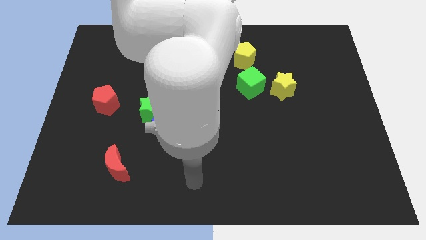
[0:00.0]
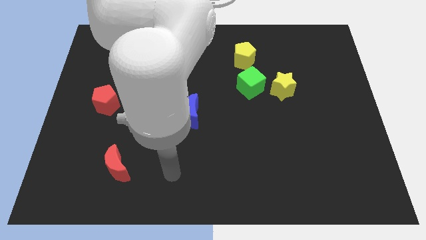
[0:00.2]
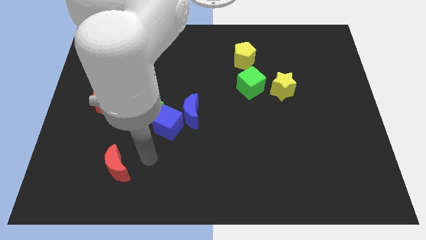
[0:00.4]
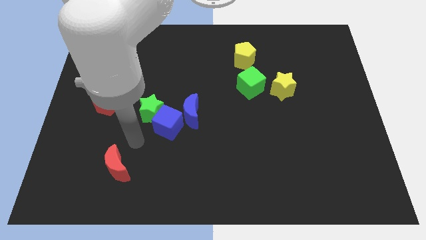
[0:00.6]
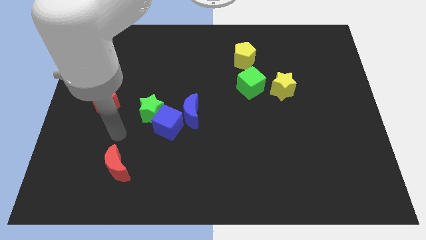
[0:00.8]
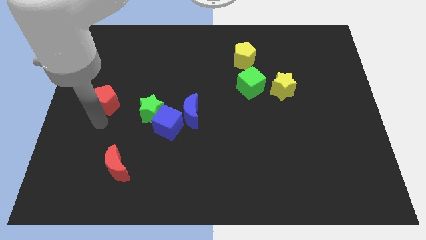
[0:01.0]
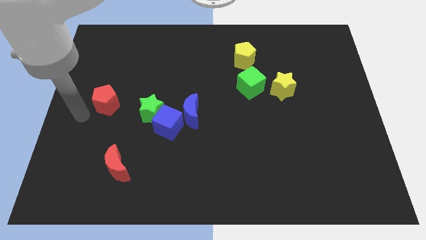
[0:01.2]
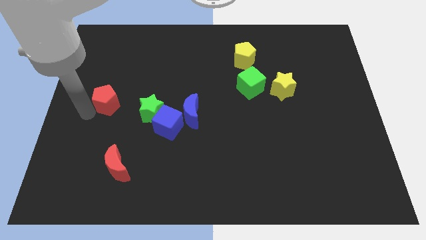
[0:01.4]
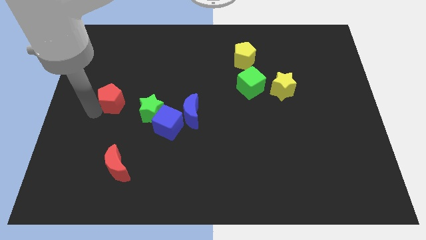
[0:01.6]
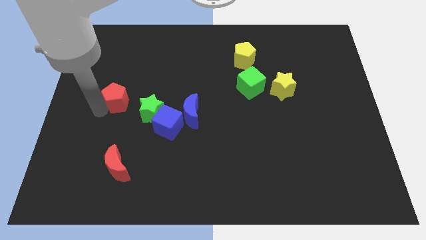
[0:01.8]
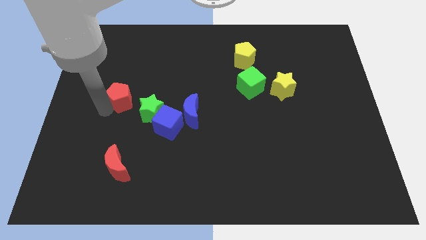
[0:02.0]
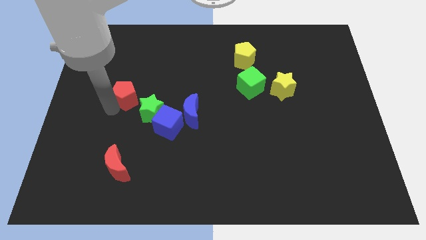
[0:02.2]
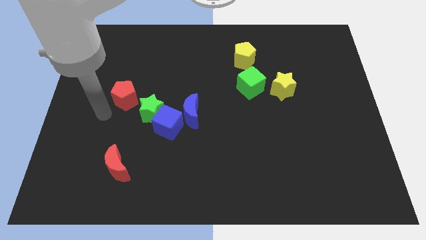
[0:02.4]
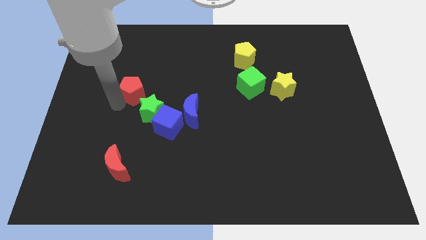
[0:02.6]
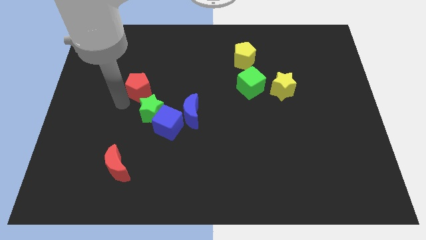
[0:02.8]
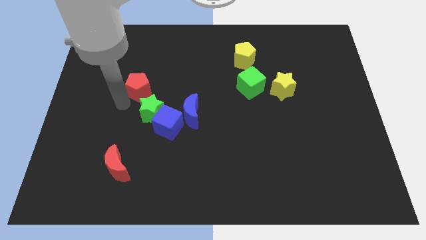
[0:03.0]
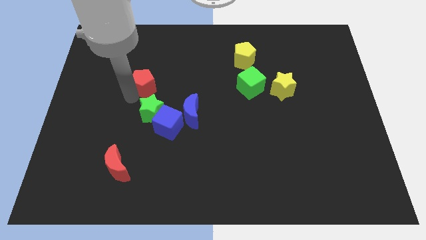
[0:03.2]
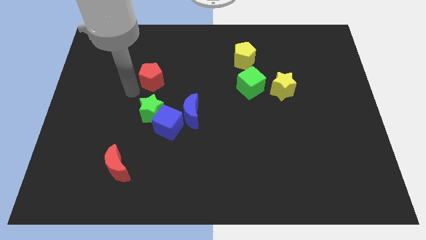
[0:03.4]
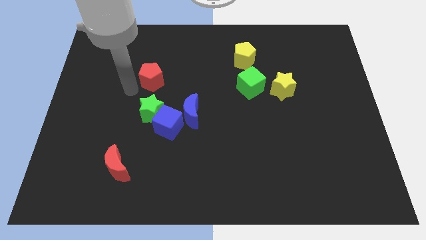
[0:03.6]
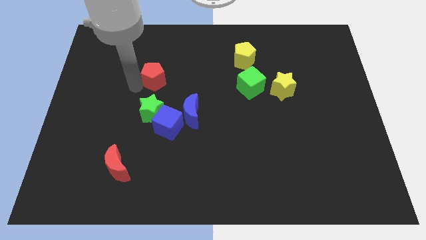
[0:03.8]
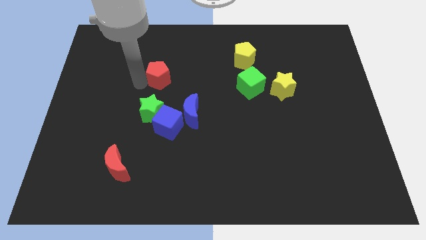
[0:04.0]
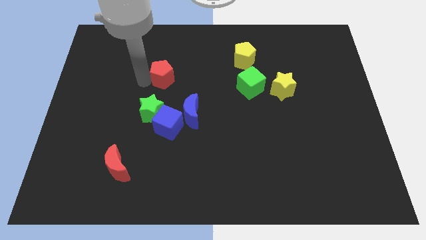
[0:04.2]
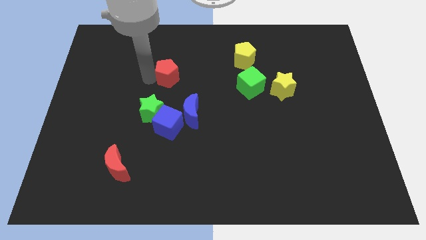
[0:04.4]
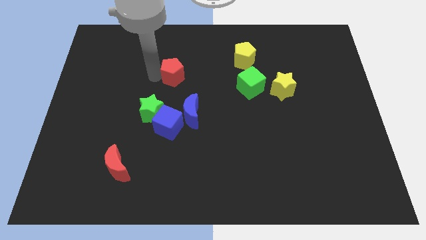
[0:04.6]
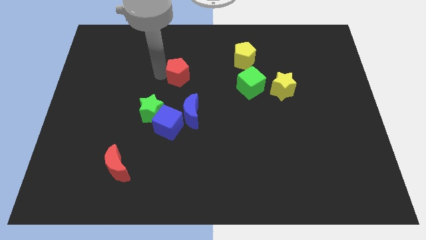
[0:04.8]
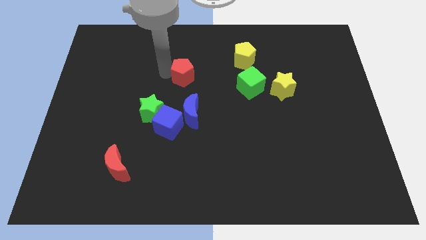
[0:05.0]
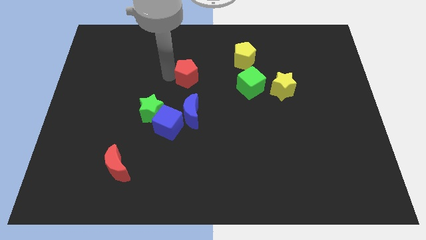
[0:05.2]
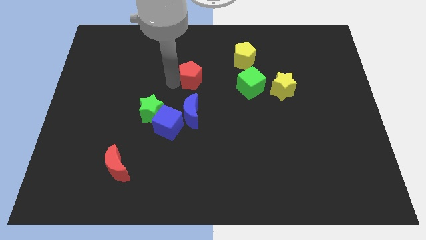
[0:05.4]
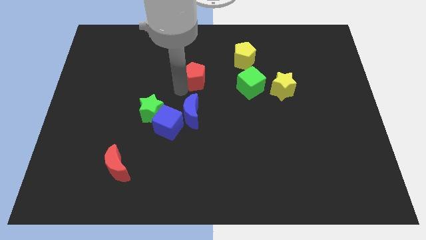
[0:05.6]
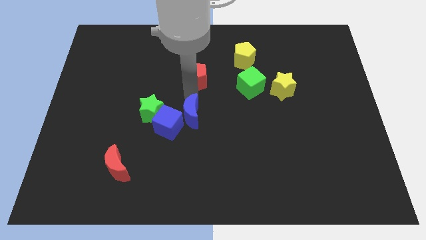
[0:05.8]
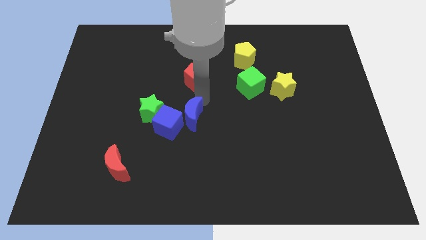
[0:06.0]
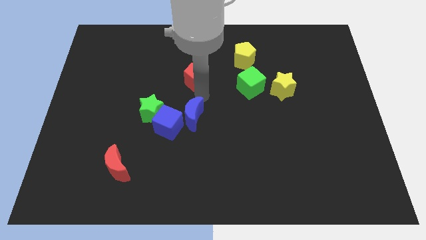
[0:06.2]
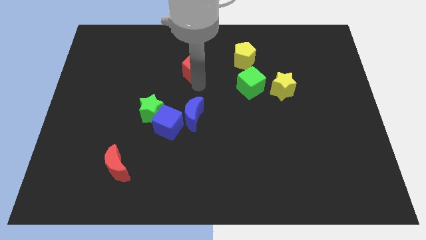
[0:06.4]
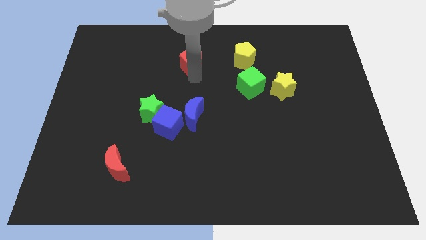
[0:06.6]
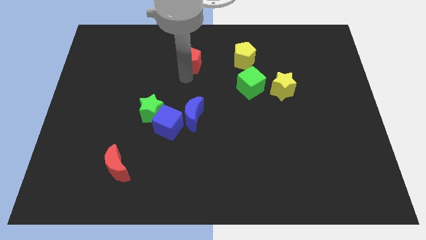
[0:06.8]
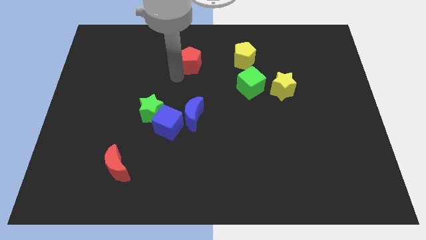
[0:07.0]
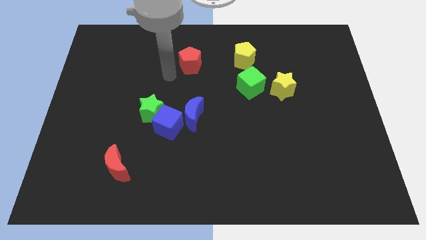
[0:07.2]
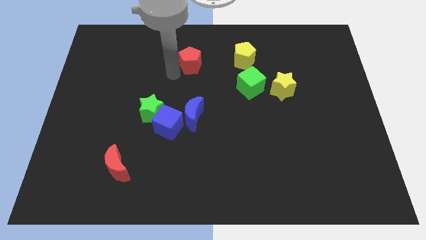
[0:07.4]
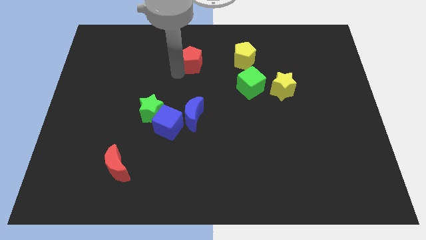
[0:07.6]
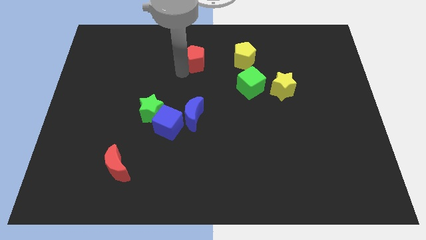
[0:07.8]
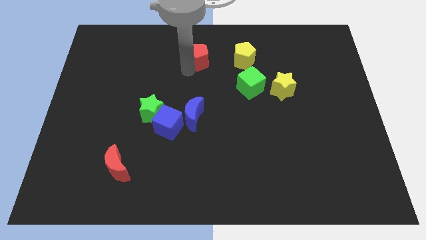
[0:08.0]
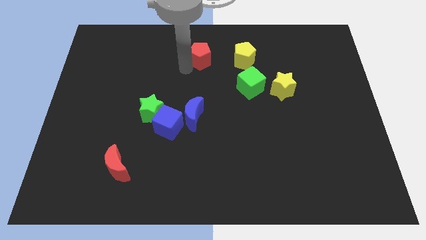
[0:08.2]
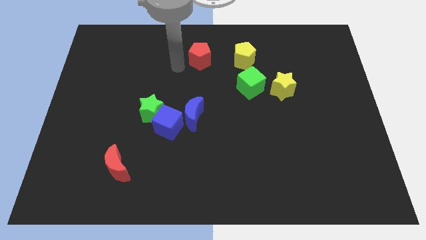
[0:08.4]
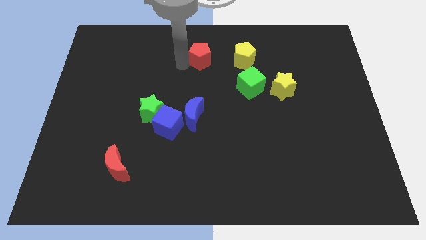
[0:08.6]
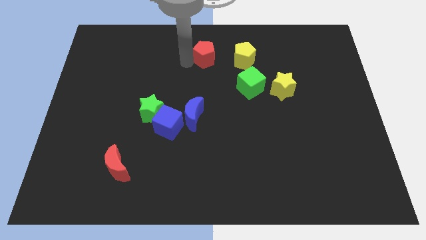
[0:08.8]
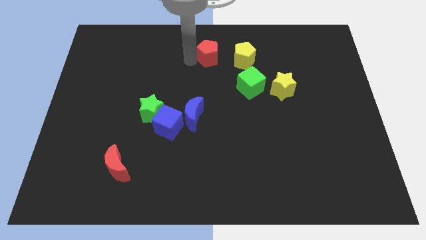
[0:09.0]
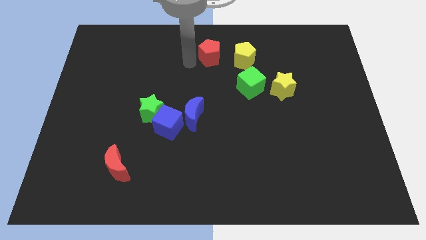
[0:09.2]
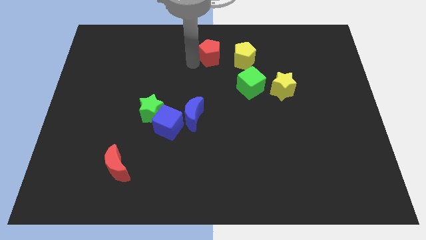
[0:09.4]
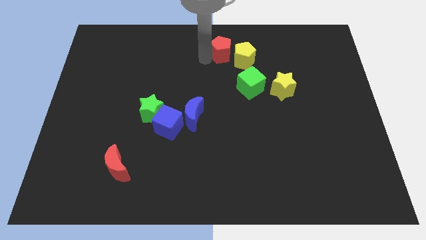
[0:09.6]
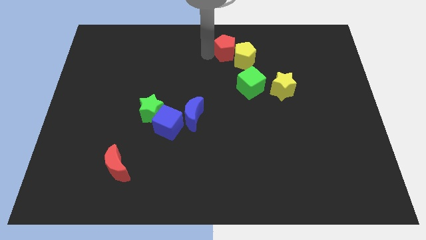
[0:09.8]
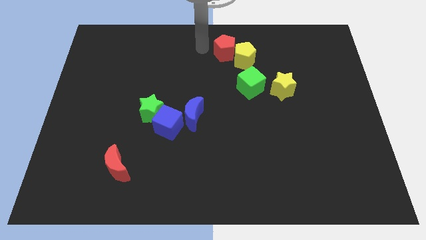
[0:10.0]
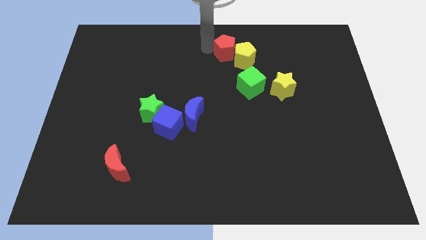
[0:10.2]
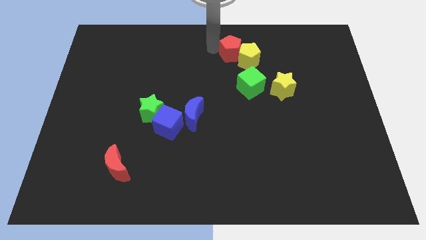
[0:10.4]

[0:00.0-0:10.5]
put the red pentagon to the top of the green cube

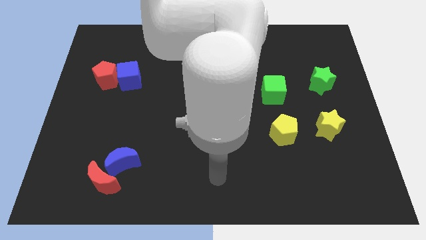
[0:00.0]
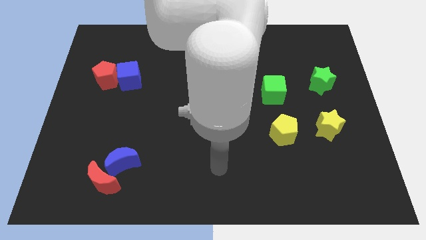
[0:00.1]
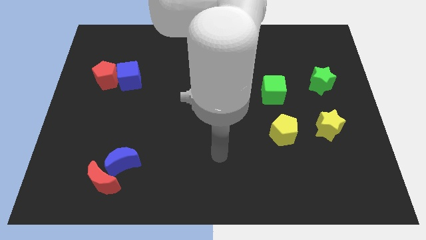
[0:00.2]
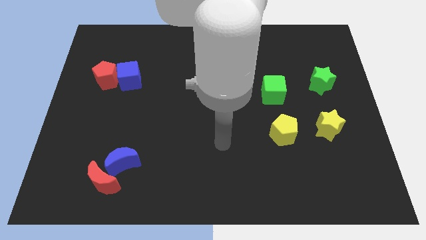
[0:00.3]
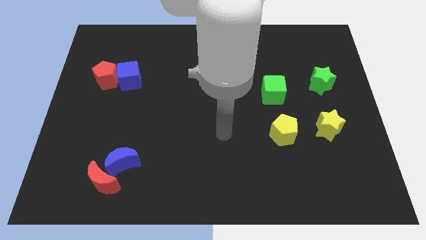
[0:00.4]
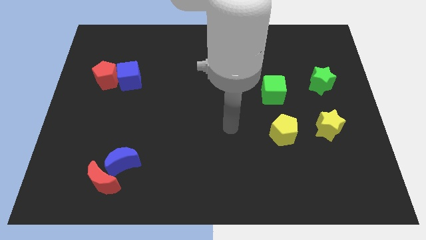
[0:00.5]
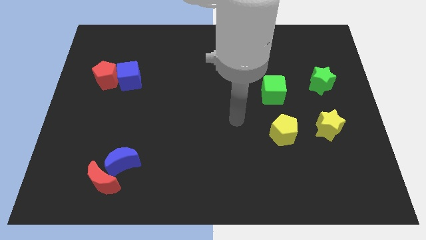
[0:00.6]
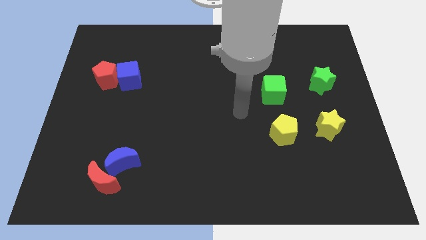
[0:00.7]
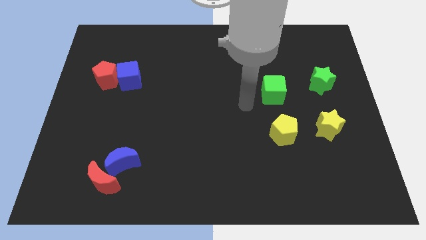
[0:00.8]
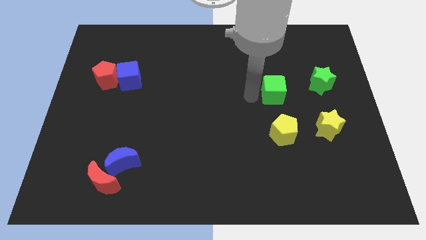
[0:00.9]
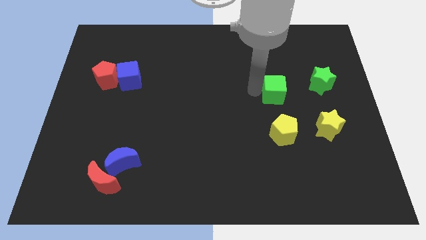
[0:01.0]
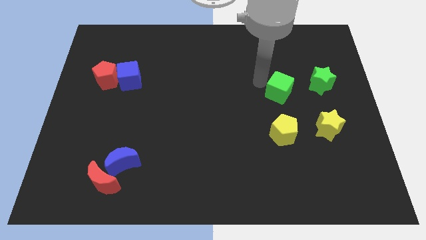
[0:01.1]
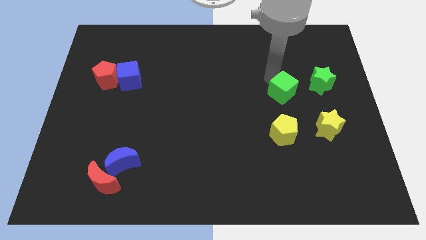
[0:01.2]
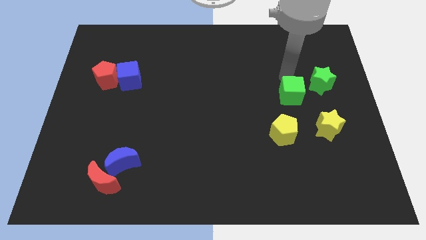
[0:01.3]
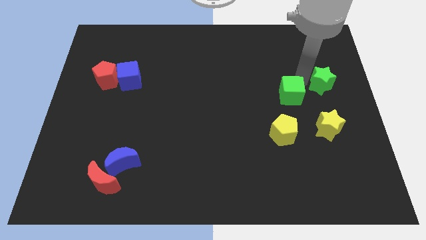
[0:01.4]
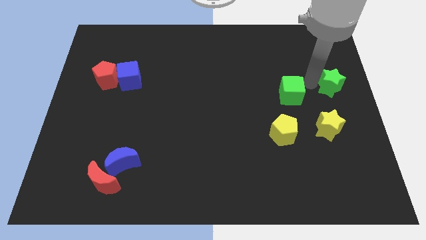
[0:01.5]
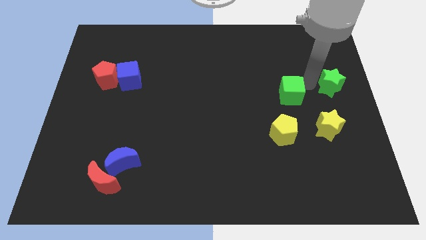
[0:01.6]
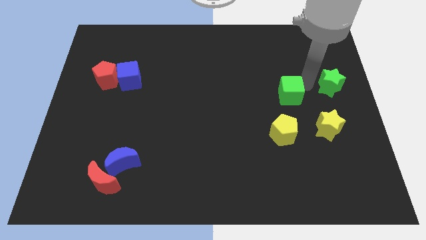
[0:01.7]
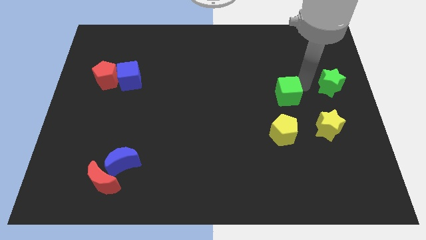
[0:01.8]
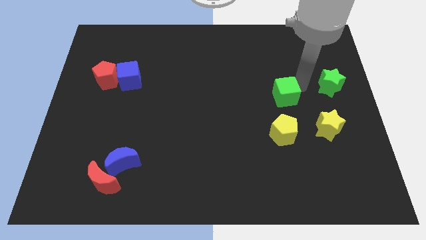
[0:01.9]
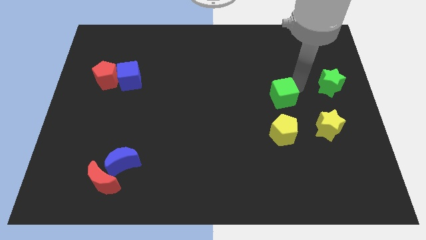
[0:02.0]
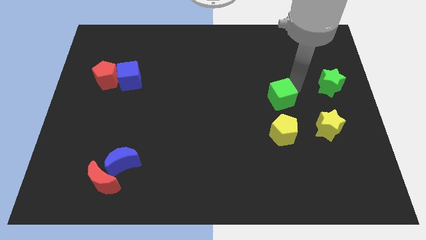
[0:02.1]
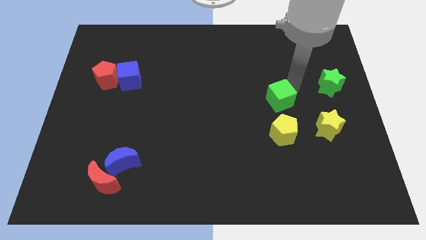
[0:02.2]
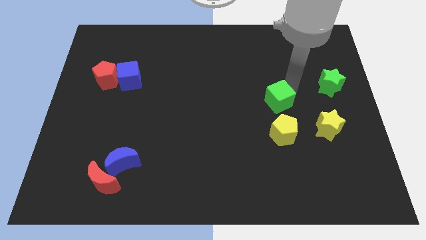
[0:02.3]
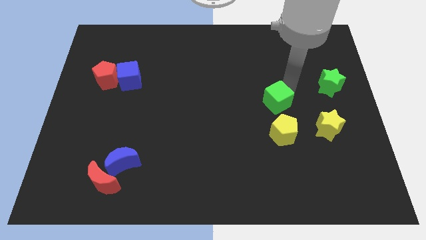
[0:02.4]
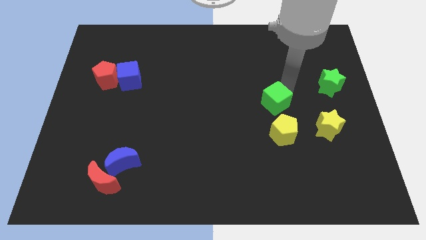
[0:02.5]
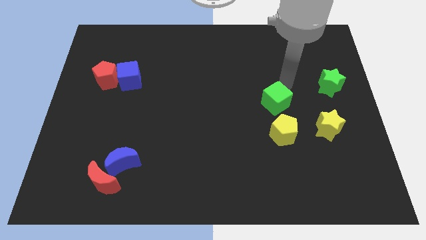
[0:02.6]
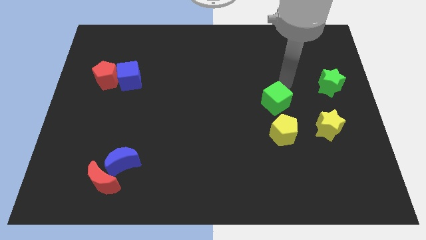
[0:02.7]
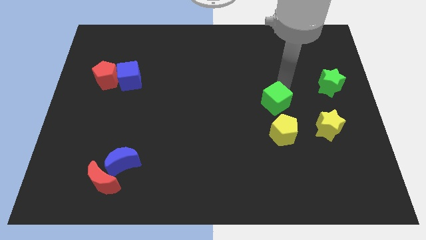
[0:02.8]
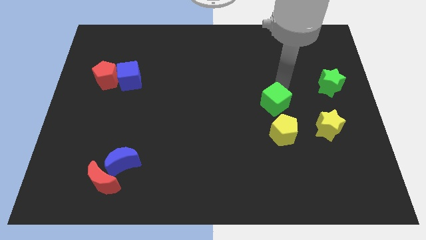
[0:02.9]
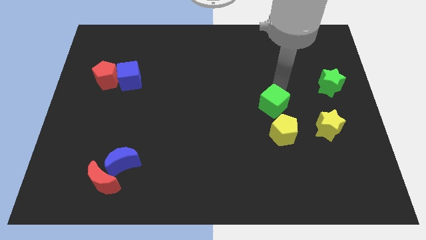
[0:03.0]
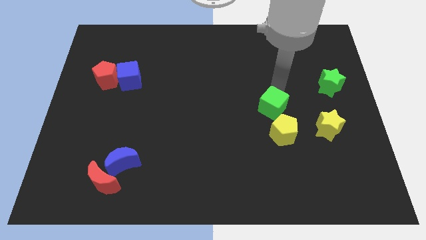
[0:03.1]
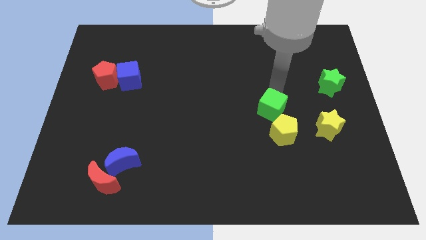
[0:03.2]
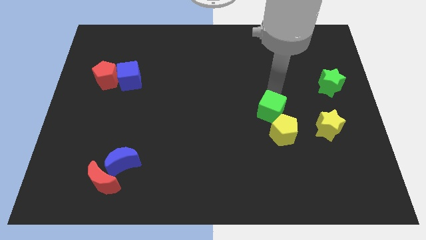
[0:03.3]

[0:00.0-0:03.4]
push the green cube to the left of the yellow star
